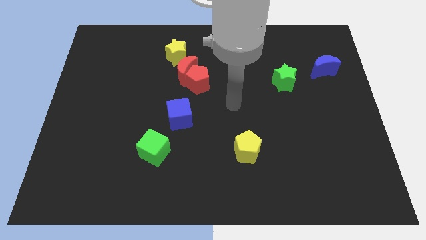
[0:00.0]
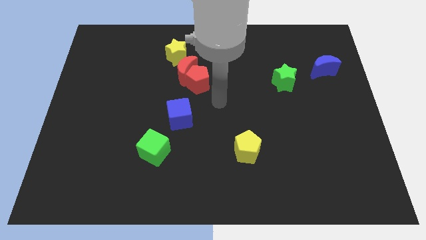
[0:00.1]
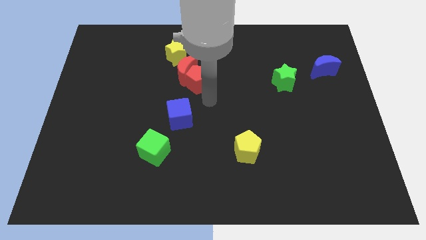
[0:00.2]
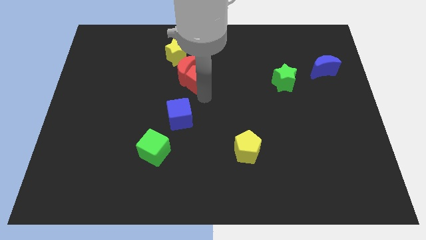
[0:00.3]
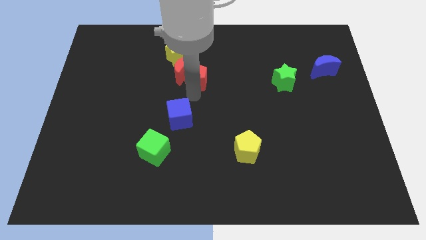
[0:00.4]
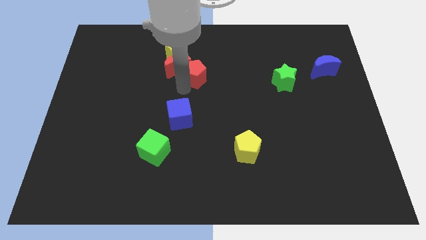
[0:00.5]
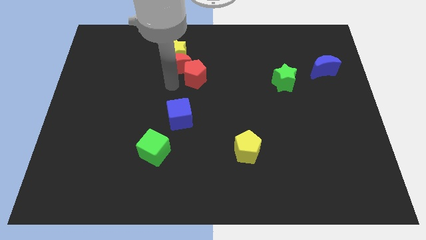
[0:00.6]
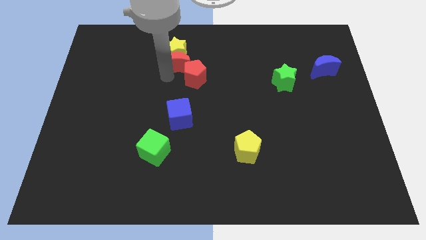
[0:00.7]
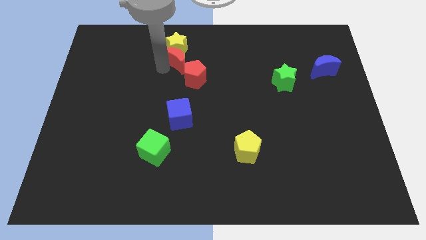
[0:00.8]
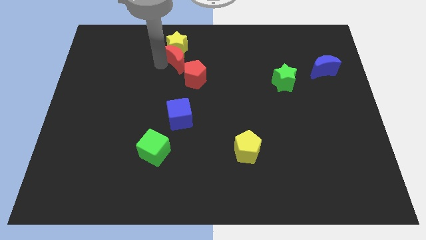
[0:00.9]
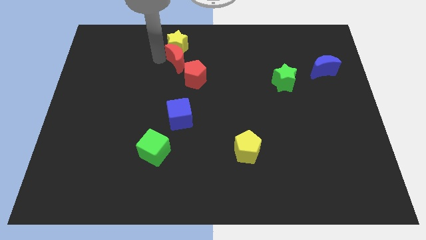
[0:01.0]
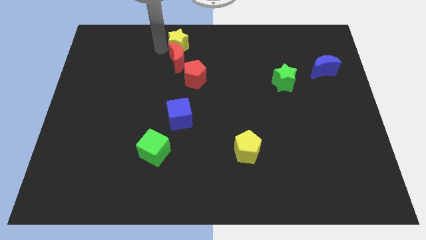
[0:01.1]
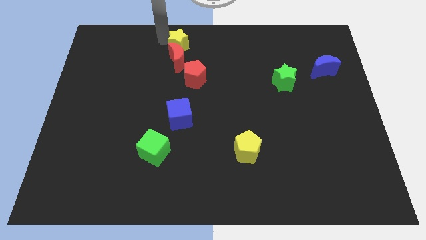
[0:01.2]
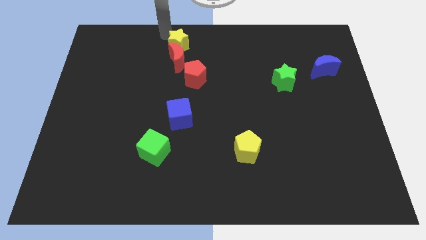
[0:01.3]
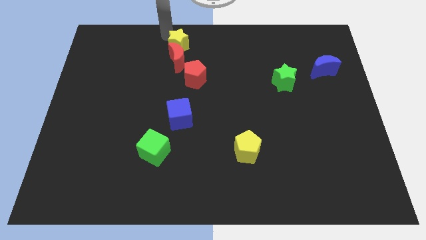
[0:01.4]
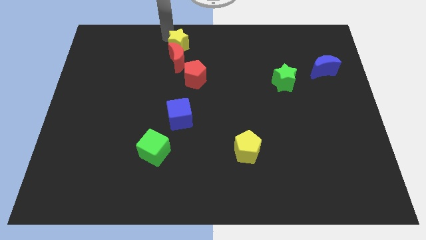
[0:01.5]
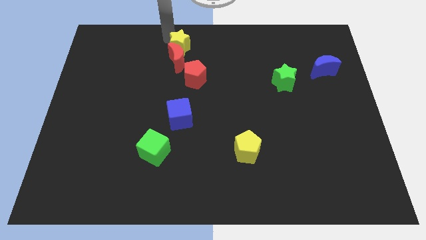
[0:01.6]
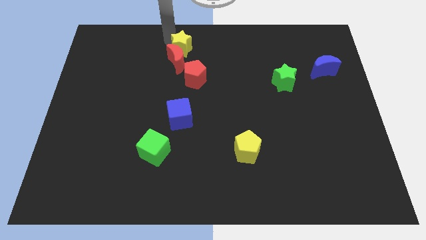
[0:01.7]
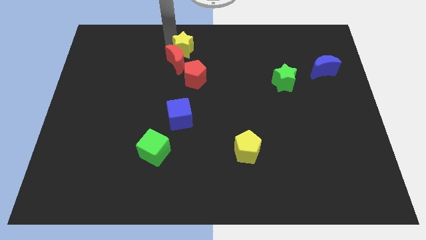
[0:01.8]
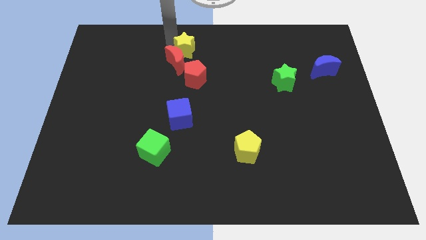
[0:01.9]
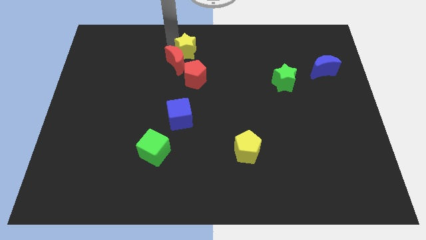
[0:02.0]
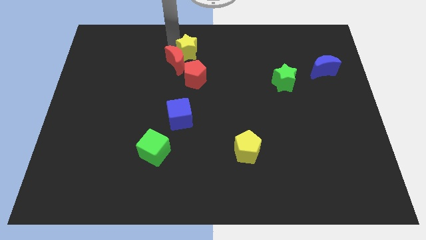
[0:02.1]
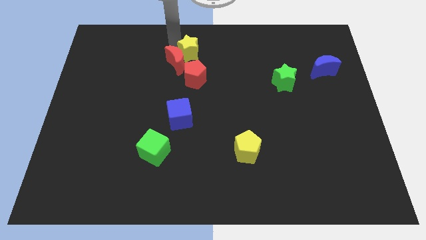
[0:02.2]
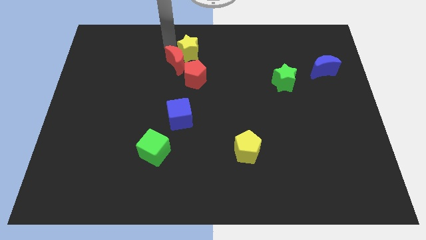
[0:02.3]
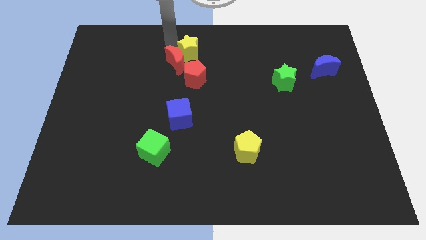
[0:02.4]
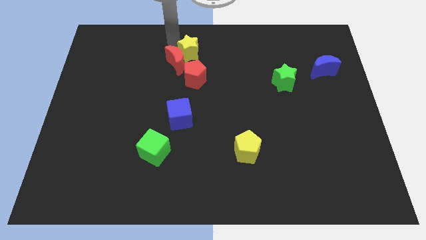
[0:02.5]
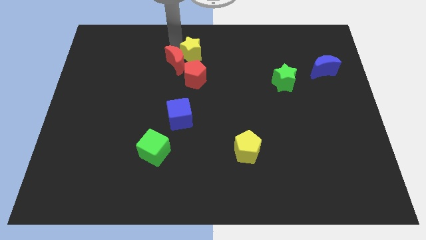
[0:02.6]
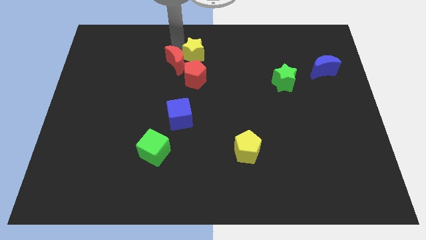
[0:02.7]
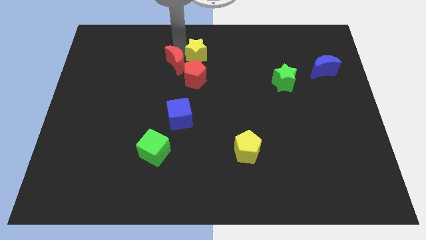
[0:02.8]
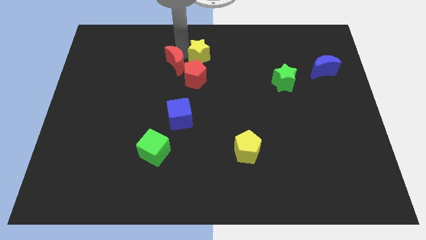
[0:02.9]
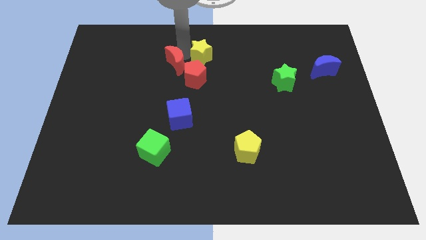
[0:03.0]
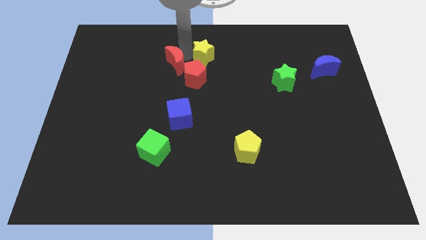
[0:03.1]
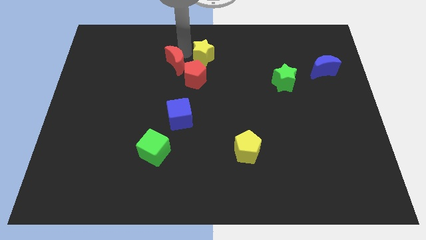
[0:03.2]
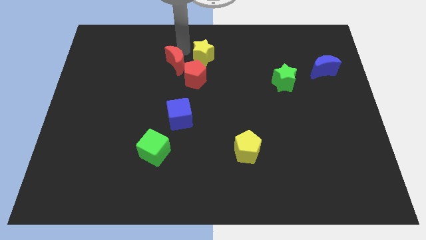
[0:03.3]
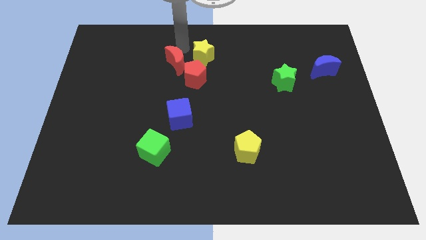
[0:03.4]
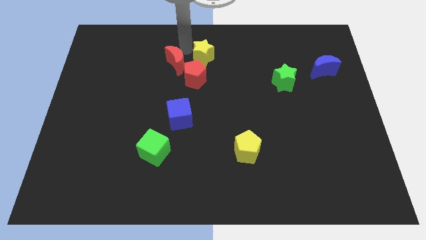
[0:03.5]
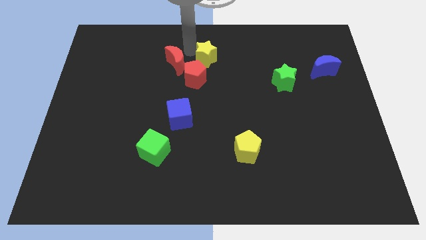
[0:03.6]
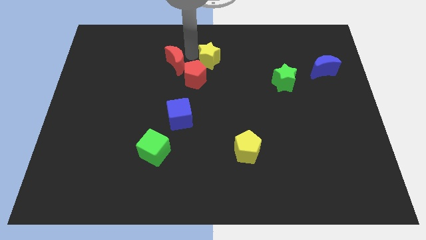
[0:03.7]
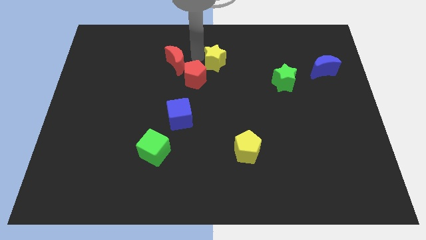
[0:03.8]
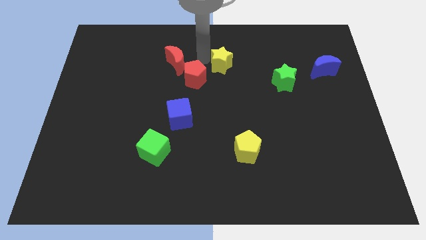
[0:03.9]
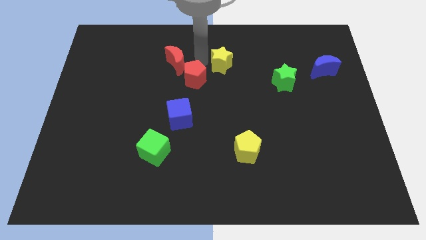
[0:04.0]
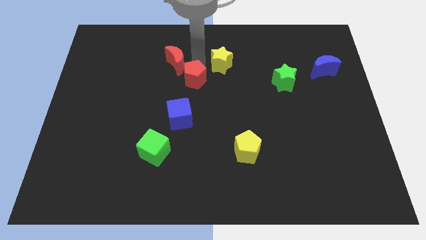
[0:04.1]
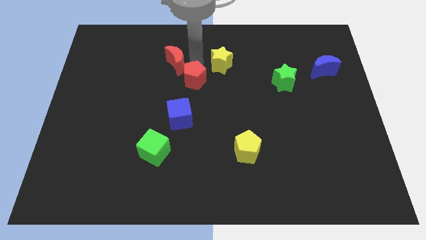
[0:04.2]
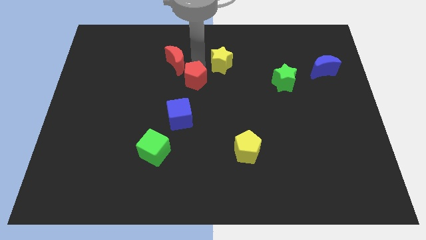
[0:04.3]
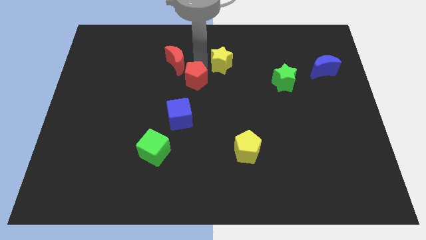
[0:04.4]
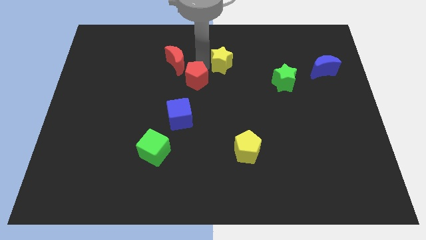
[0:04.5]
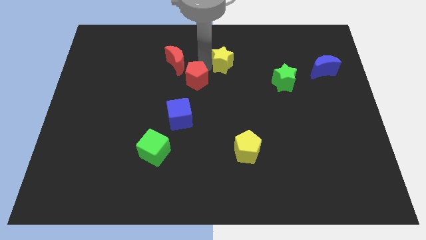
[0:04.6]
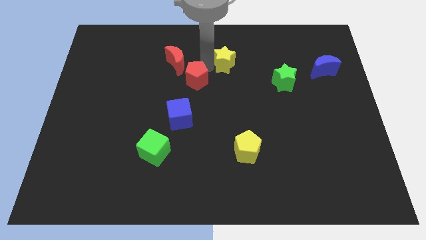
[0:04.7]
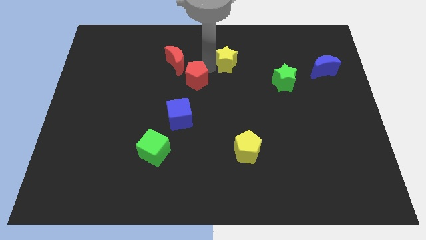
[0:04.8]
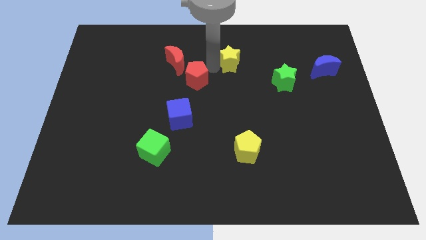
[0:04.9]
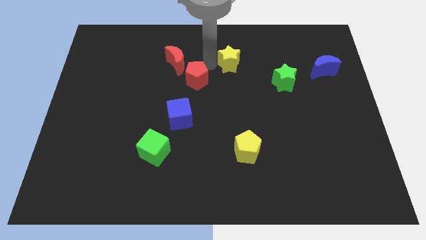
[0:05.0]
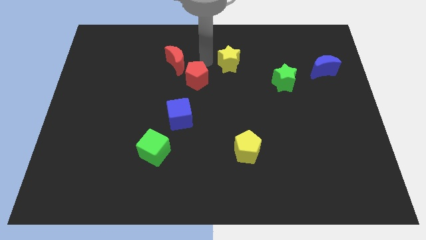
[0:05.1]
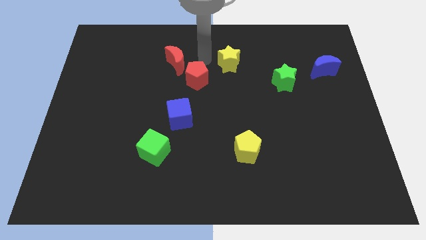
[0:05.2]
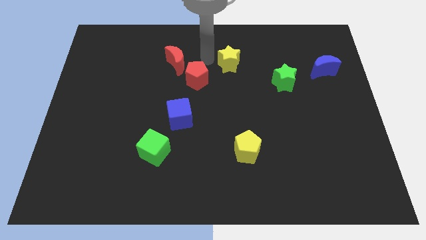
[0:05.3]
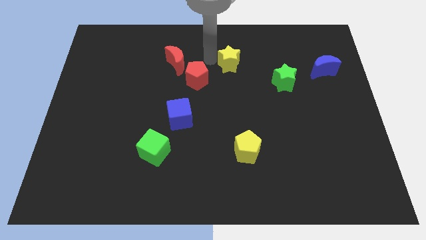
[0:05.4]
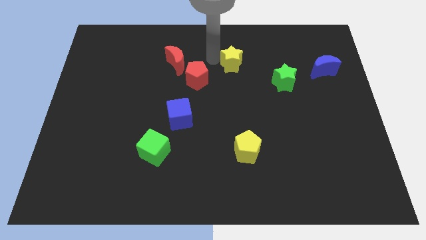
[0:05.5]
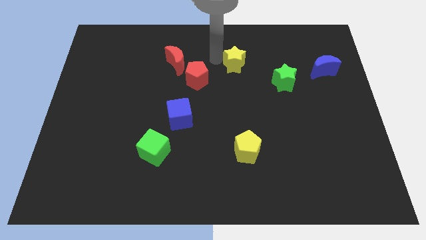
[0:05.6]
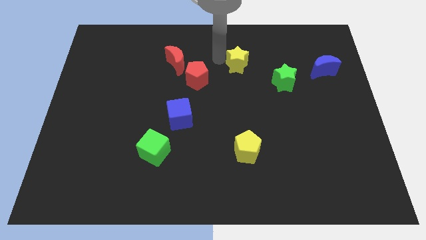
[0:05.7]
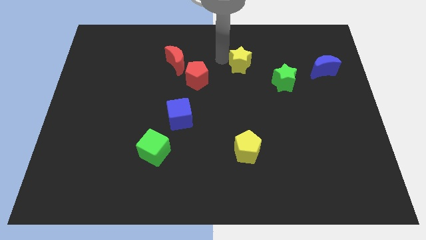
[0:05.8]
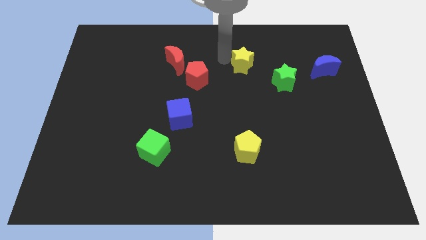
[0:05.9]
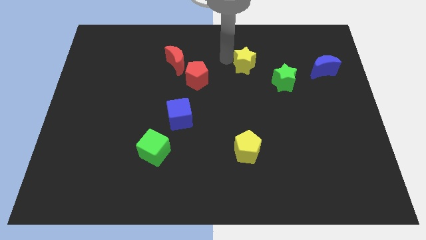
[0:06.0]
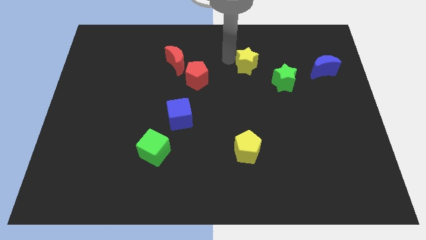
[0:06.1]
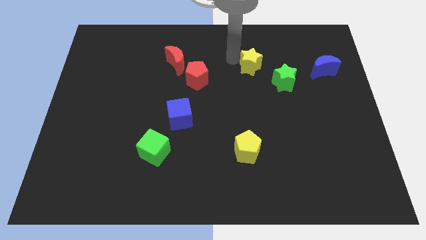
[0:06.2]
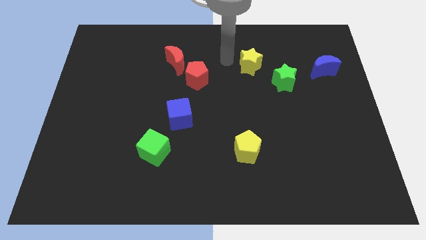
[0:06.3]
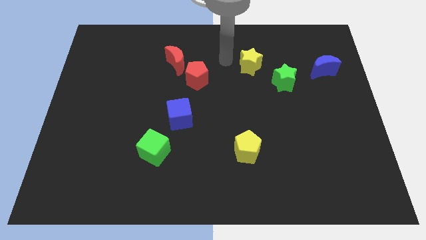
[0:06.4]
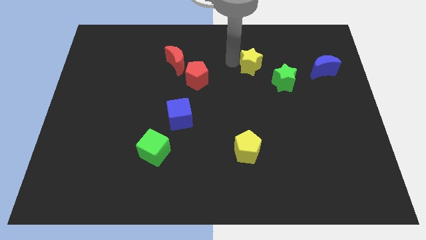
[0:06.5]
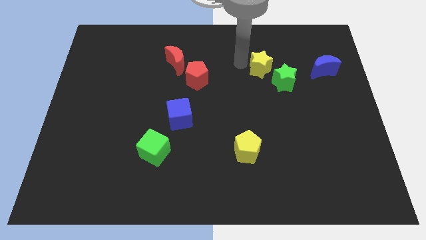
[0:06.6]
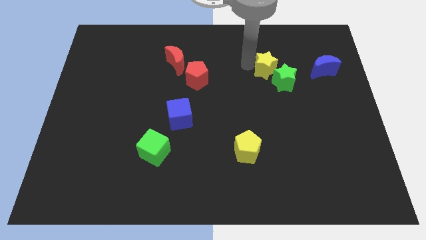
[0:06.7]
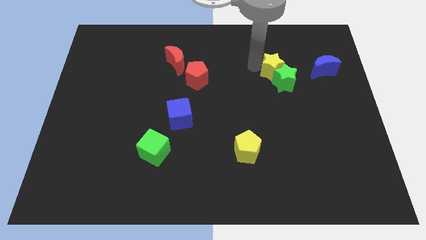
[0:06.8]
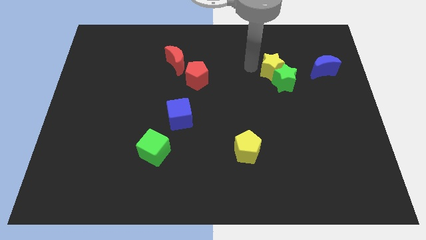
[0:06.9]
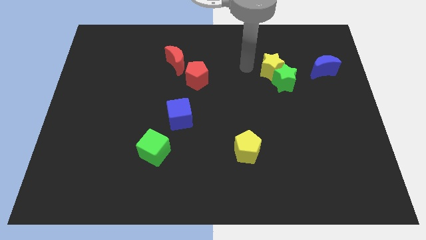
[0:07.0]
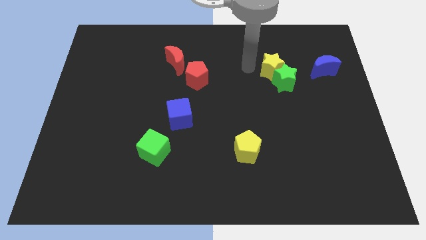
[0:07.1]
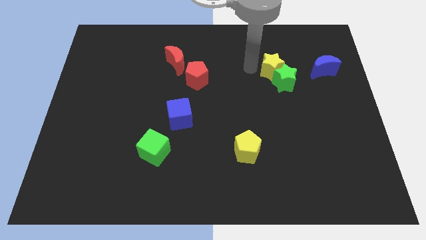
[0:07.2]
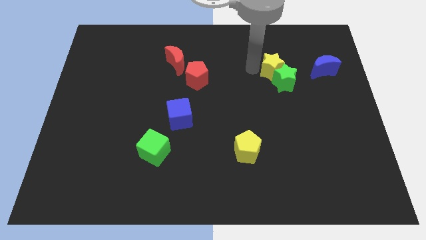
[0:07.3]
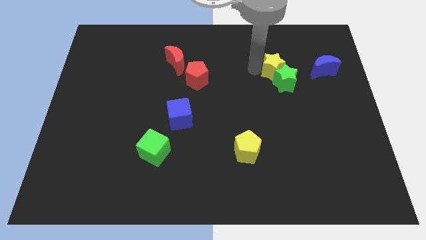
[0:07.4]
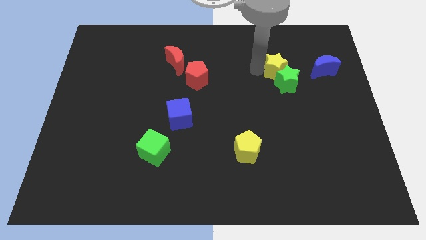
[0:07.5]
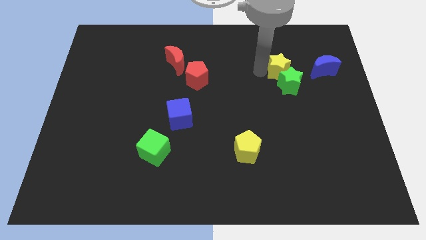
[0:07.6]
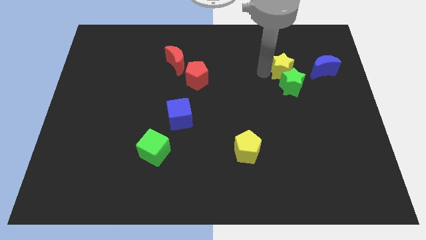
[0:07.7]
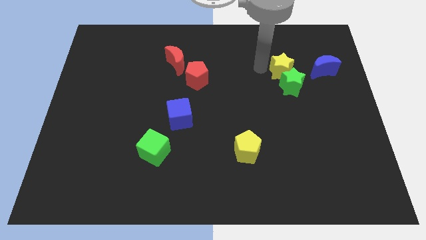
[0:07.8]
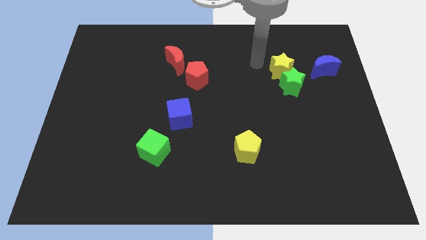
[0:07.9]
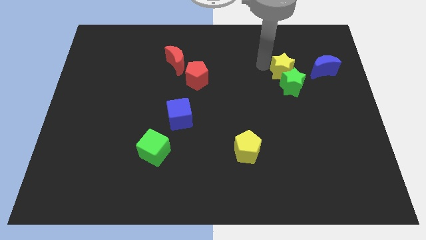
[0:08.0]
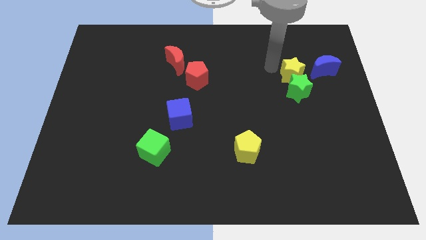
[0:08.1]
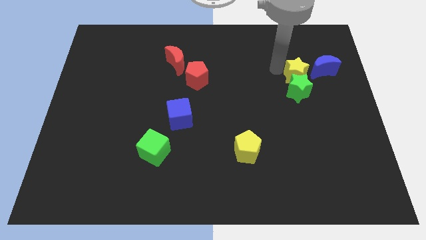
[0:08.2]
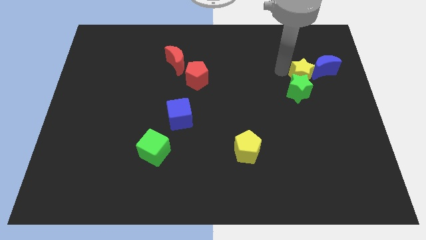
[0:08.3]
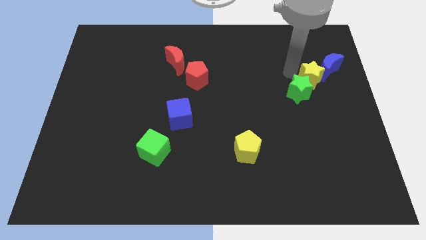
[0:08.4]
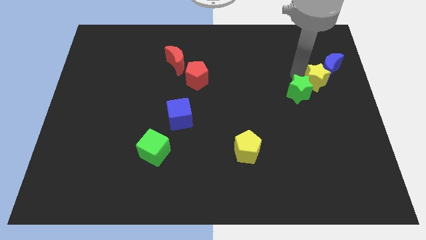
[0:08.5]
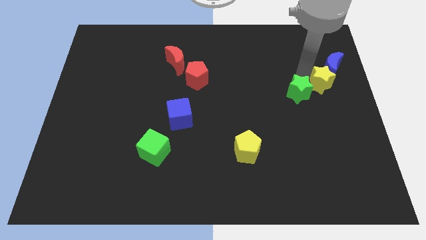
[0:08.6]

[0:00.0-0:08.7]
slide the yellow star to the center right
